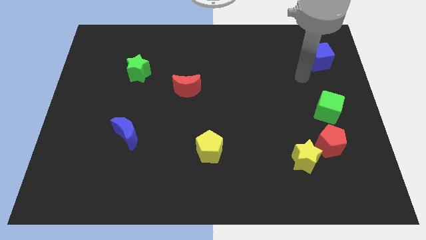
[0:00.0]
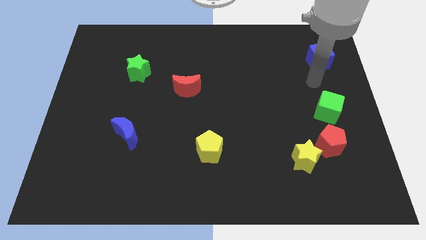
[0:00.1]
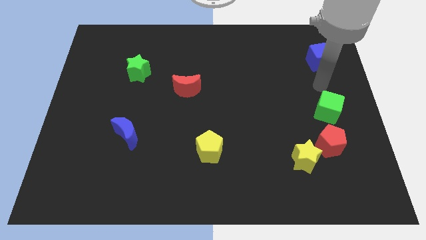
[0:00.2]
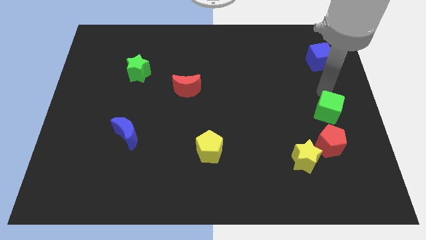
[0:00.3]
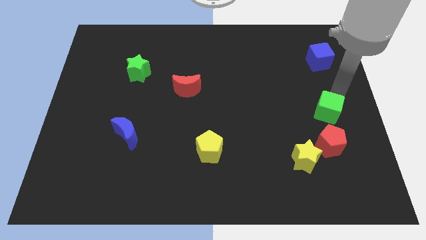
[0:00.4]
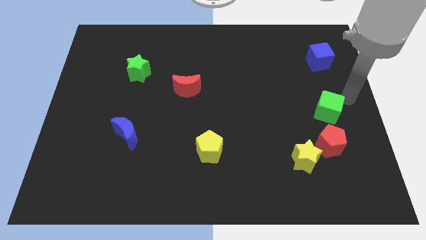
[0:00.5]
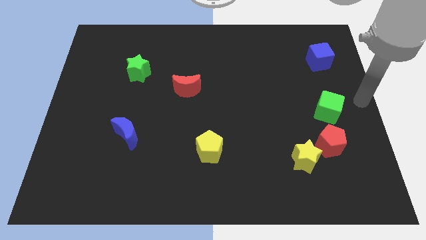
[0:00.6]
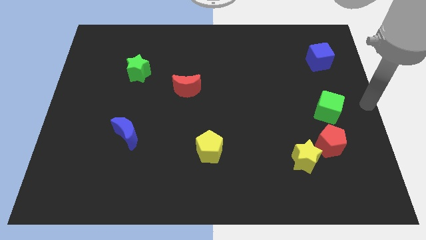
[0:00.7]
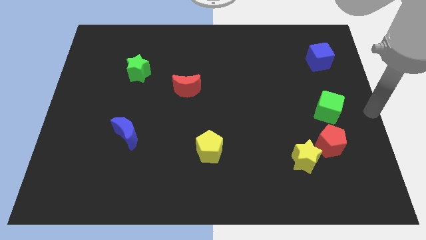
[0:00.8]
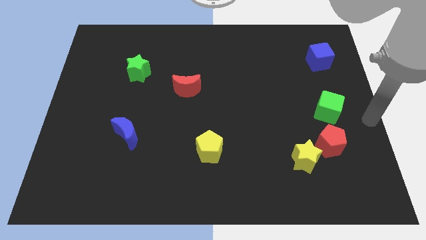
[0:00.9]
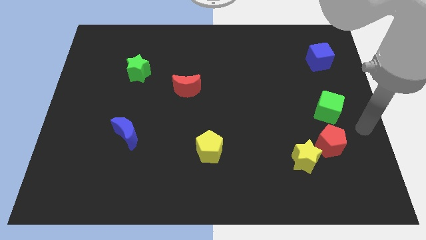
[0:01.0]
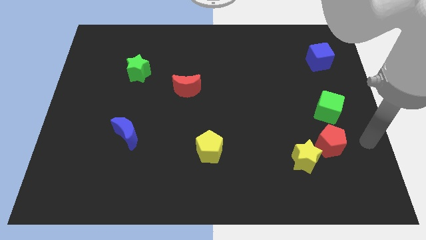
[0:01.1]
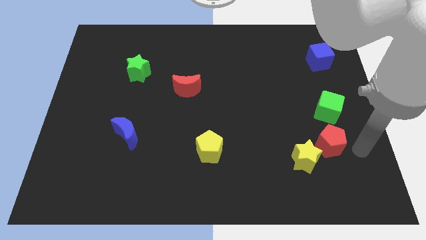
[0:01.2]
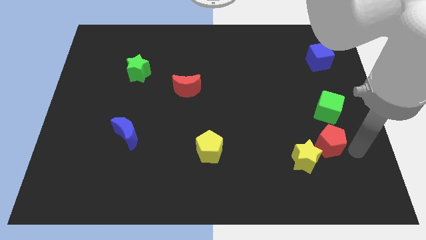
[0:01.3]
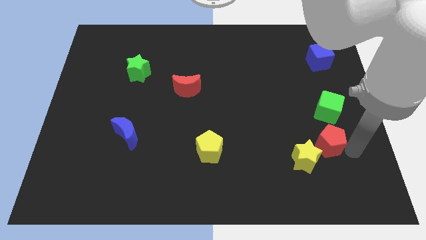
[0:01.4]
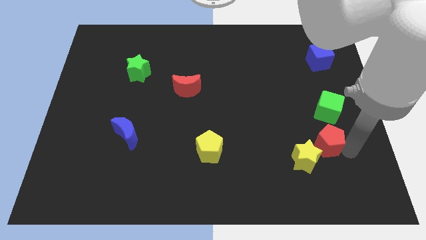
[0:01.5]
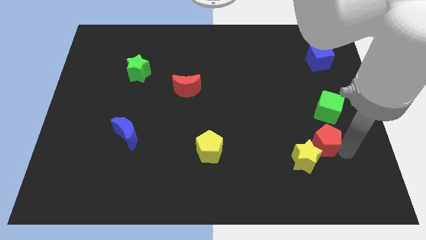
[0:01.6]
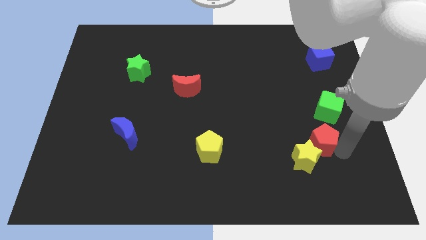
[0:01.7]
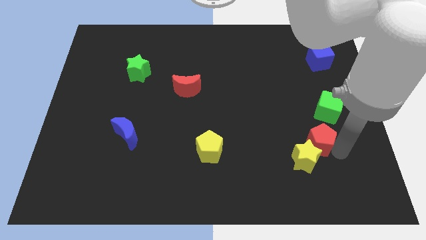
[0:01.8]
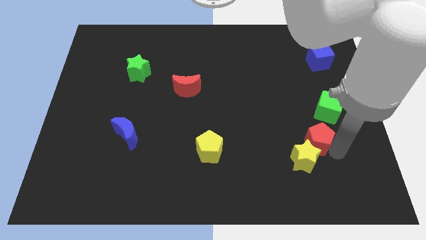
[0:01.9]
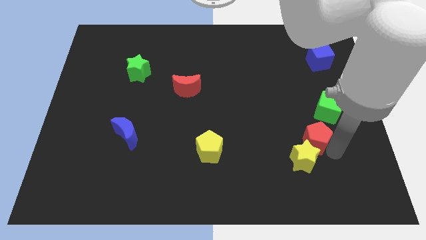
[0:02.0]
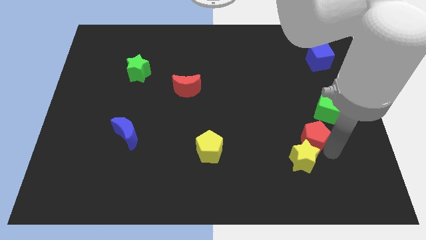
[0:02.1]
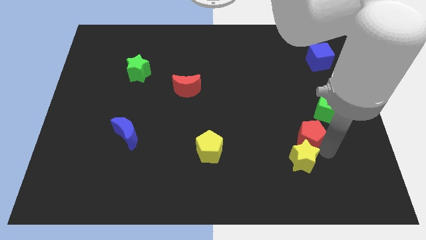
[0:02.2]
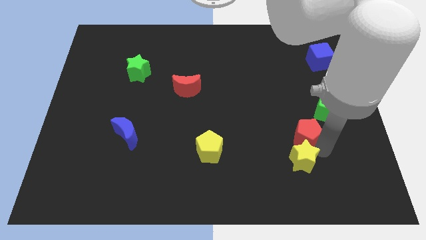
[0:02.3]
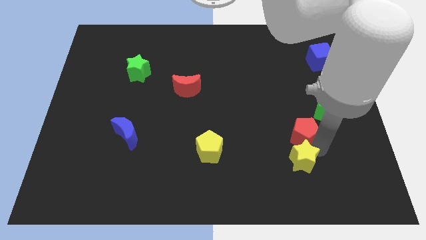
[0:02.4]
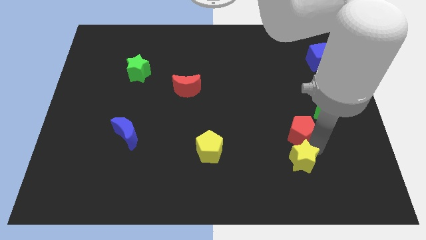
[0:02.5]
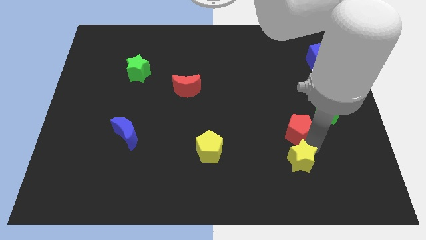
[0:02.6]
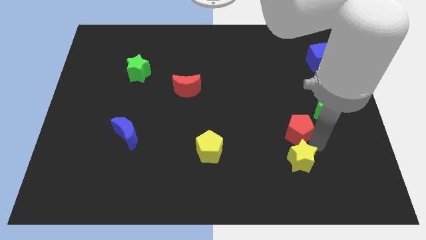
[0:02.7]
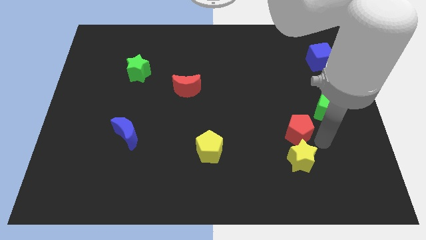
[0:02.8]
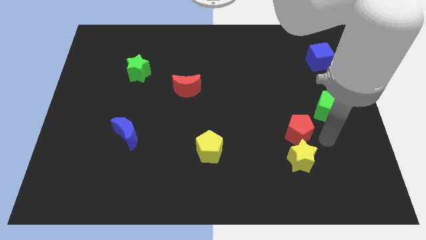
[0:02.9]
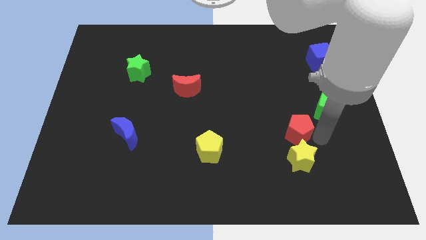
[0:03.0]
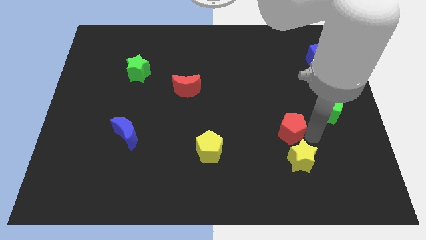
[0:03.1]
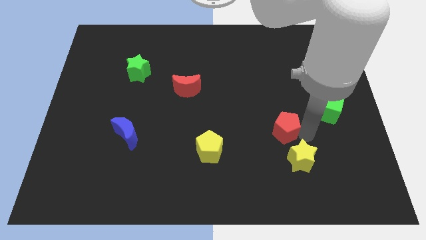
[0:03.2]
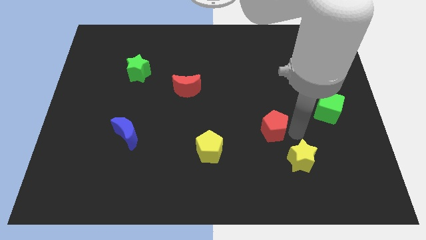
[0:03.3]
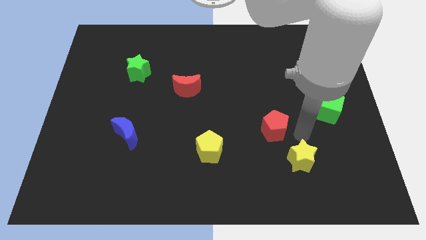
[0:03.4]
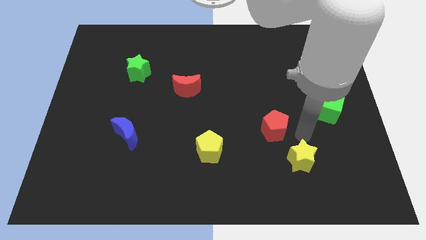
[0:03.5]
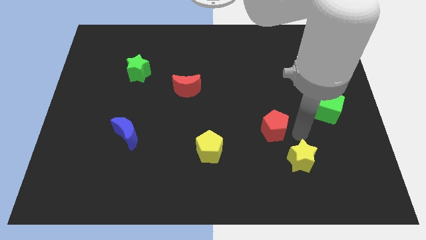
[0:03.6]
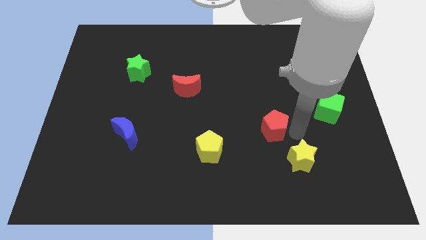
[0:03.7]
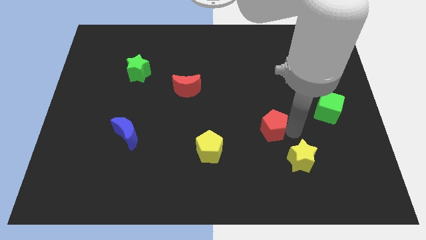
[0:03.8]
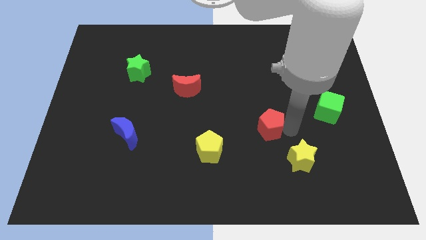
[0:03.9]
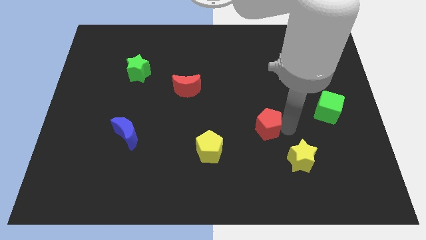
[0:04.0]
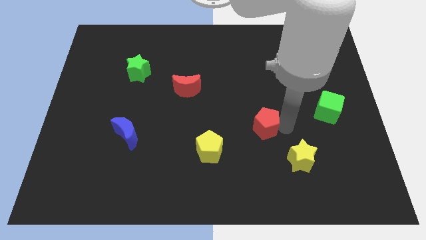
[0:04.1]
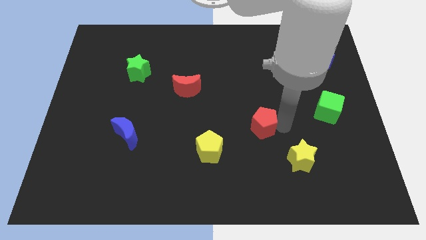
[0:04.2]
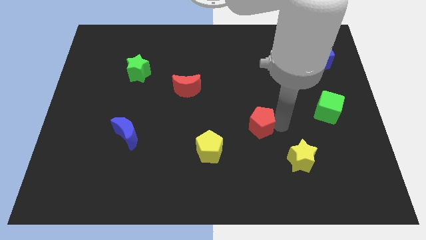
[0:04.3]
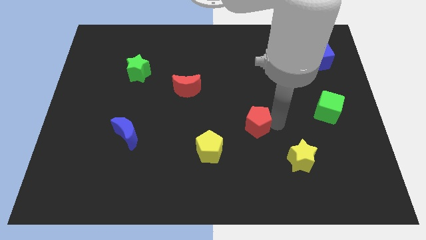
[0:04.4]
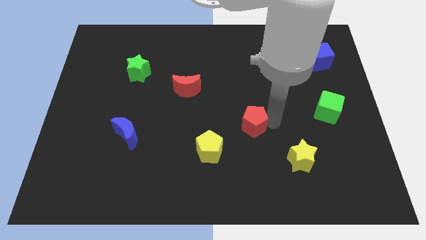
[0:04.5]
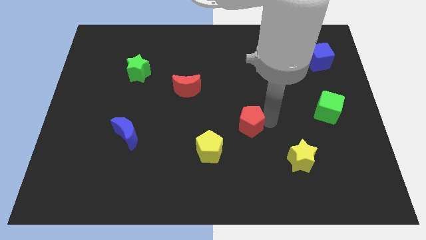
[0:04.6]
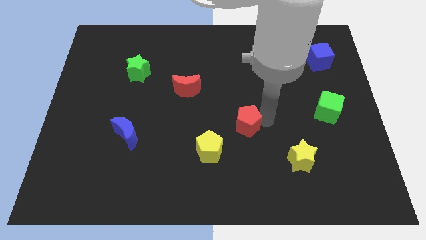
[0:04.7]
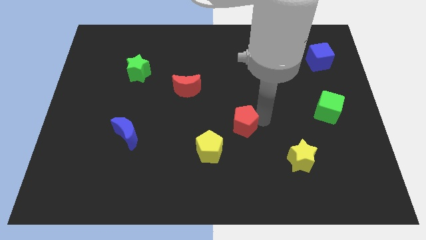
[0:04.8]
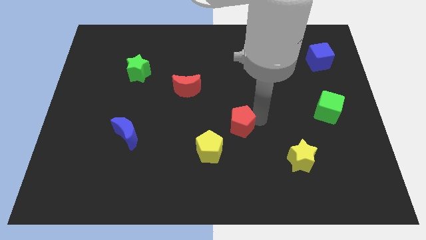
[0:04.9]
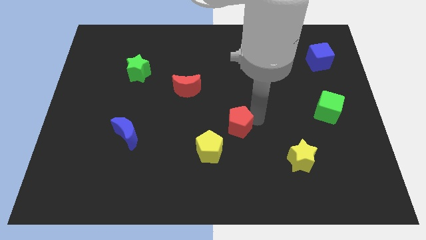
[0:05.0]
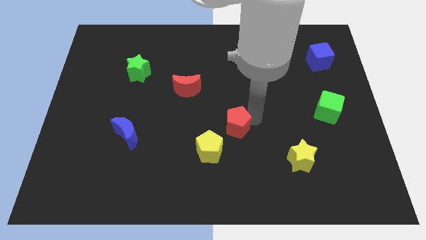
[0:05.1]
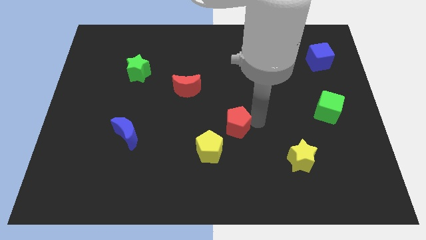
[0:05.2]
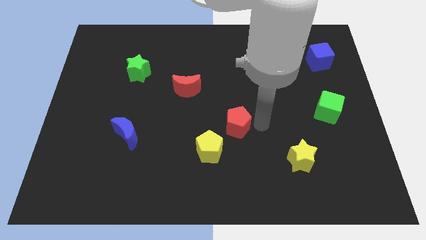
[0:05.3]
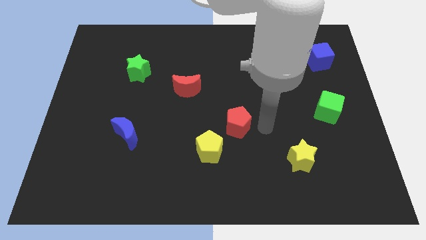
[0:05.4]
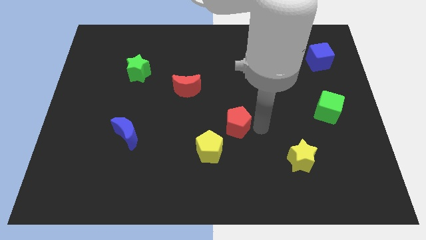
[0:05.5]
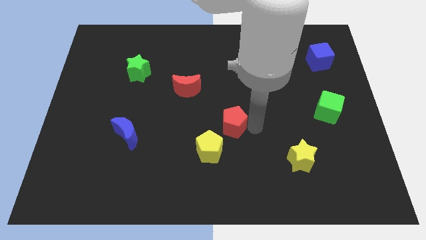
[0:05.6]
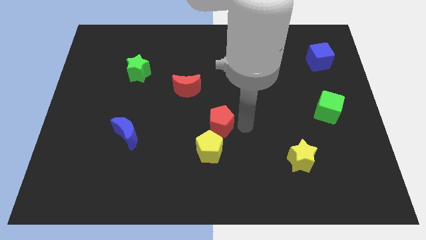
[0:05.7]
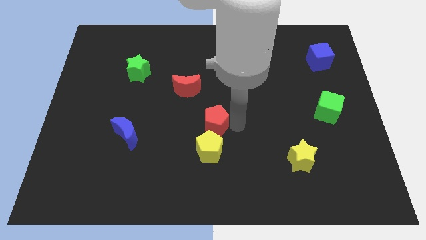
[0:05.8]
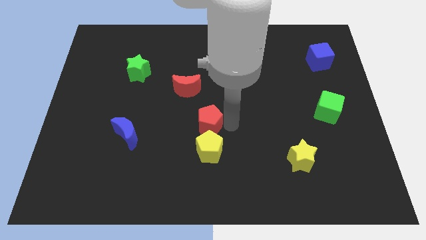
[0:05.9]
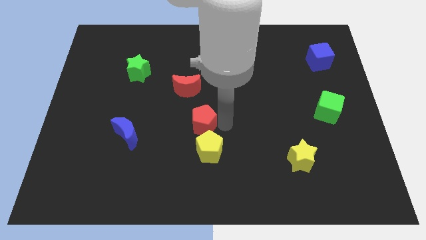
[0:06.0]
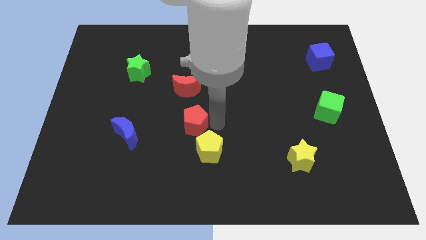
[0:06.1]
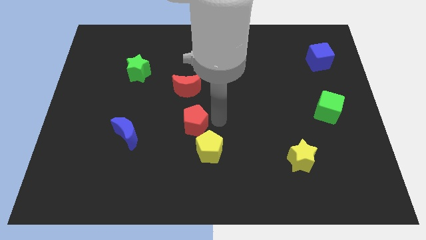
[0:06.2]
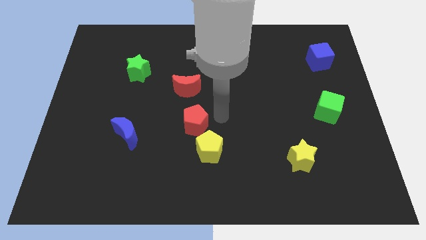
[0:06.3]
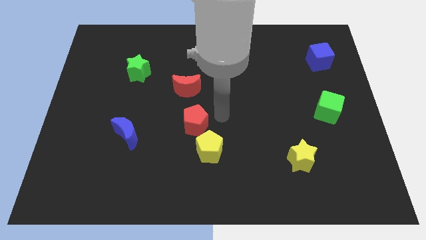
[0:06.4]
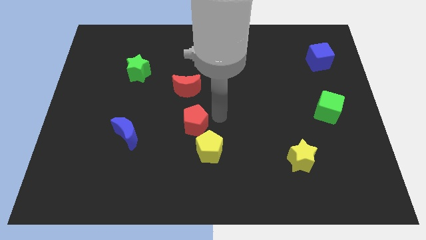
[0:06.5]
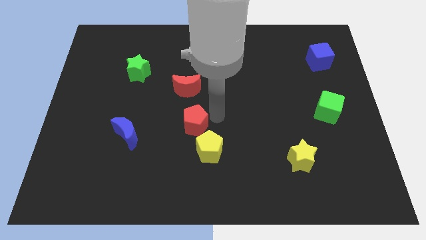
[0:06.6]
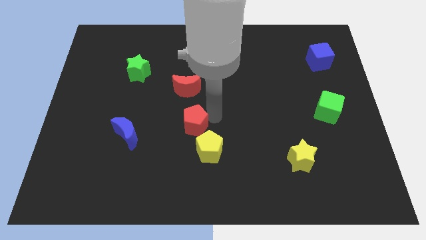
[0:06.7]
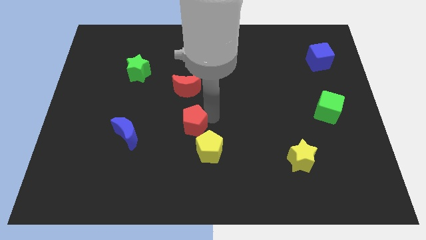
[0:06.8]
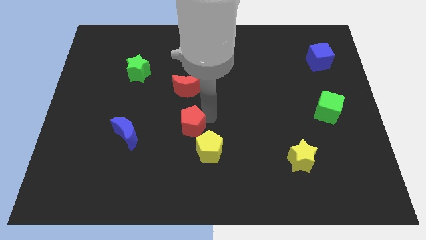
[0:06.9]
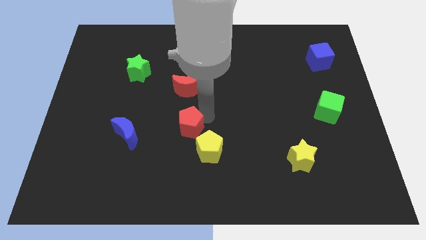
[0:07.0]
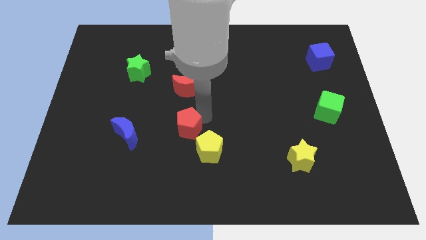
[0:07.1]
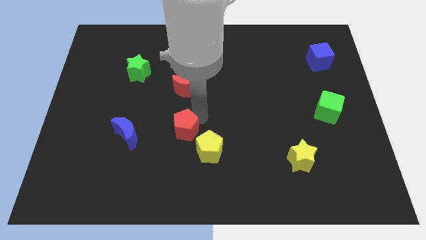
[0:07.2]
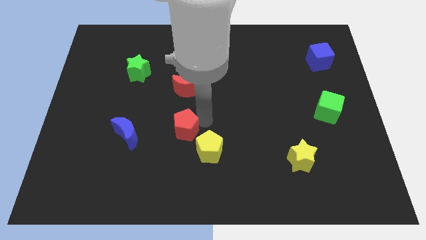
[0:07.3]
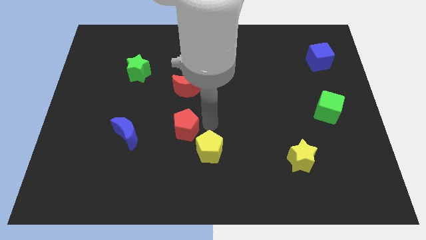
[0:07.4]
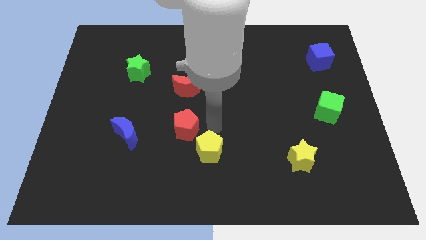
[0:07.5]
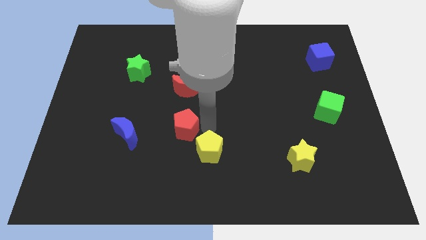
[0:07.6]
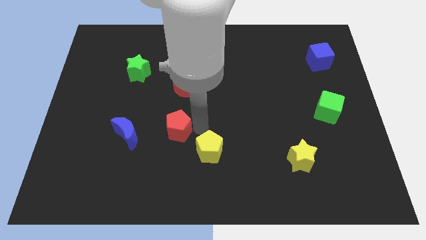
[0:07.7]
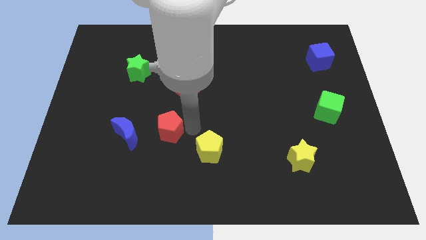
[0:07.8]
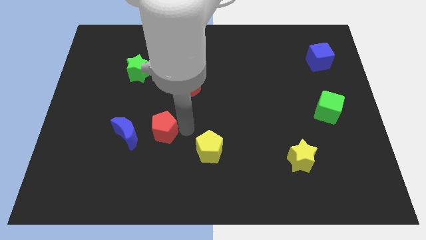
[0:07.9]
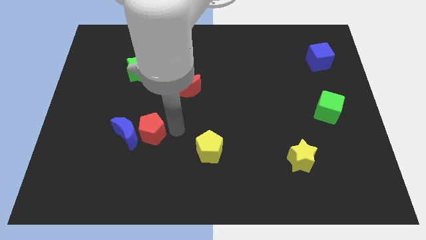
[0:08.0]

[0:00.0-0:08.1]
push the red pentagon to the blue moon
